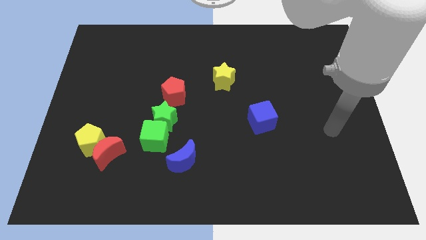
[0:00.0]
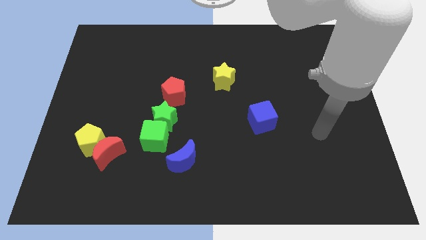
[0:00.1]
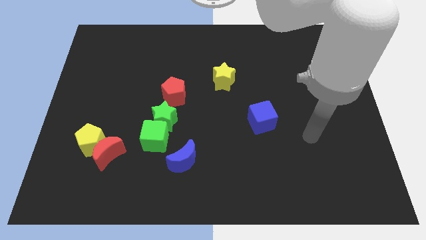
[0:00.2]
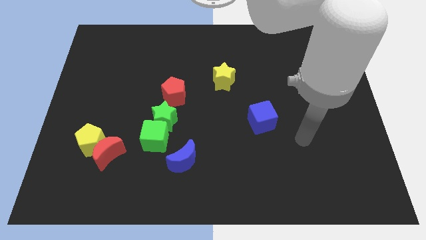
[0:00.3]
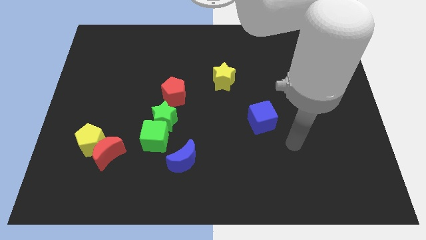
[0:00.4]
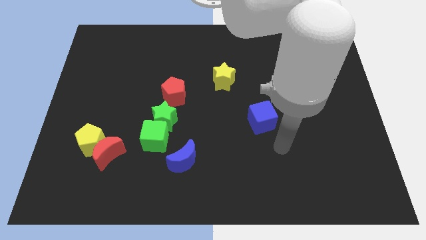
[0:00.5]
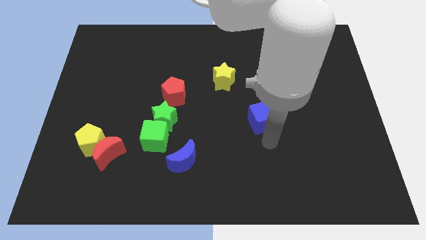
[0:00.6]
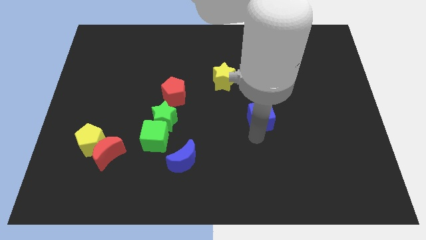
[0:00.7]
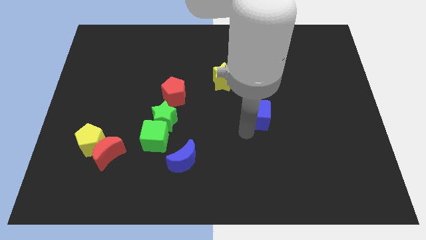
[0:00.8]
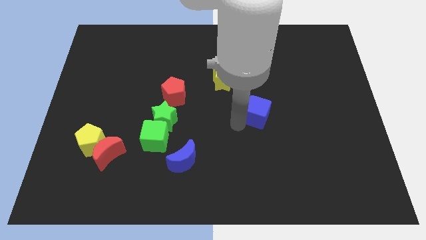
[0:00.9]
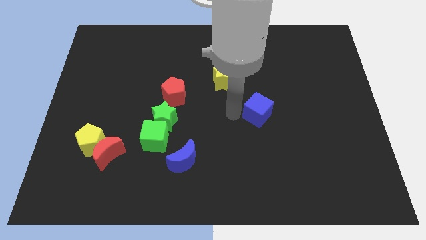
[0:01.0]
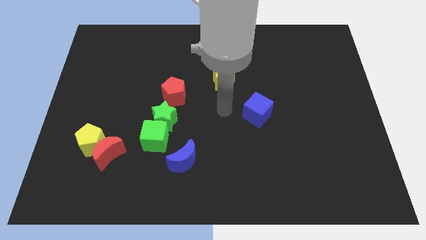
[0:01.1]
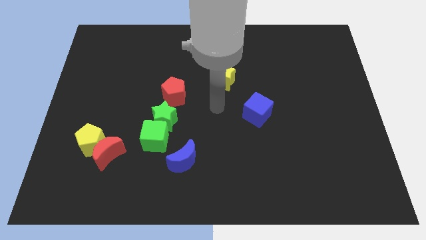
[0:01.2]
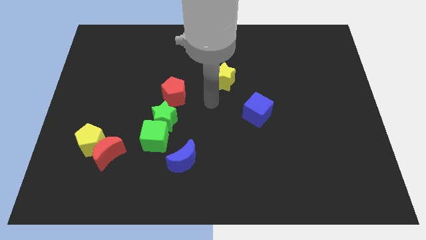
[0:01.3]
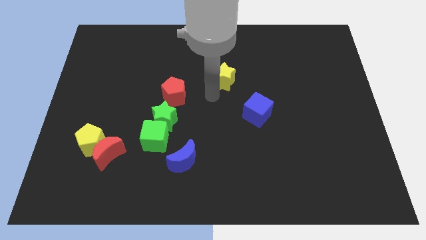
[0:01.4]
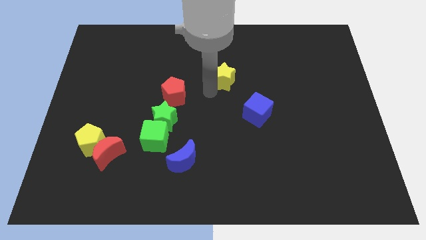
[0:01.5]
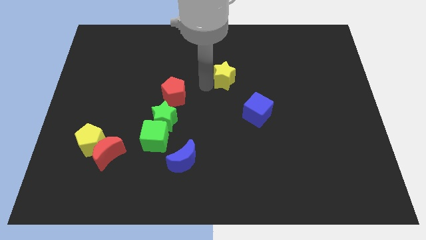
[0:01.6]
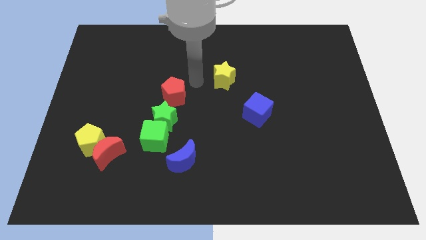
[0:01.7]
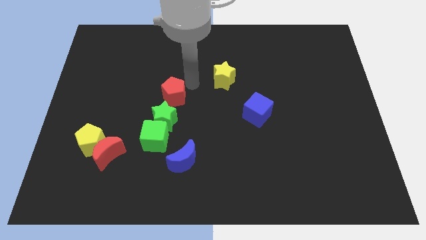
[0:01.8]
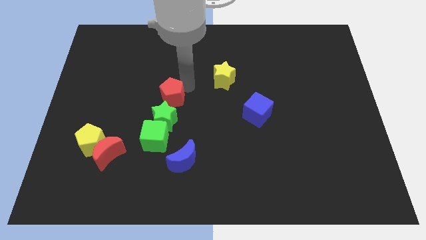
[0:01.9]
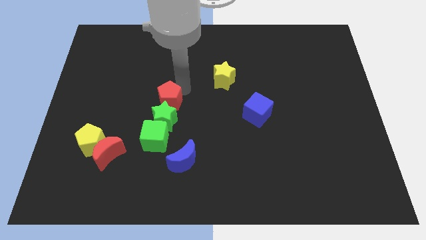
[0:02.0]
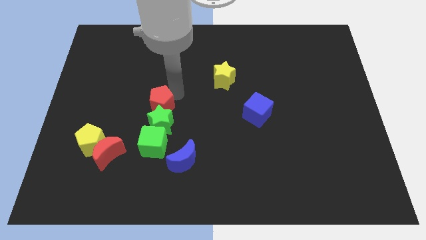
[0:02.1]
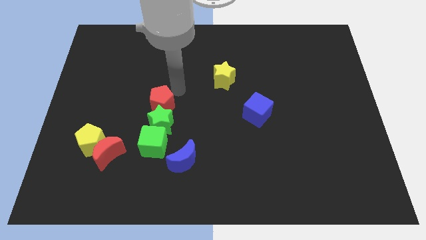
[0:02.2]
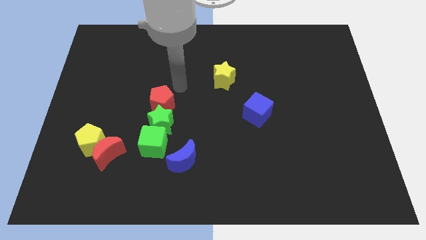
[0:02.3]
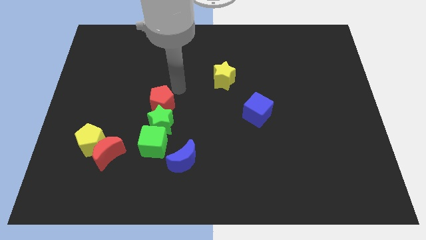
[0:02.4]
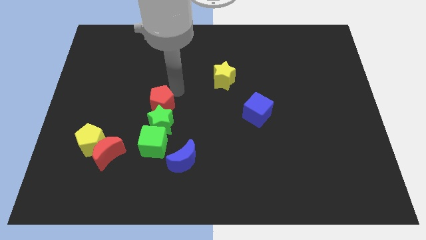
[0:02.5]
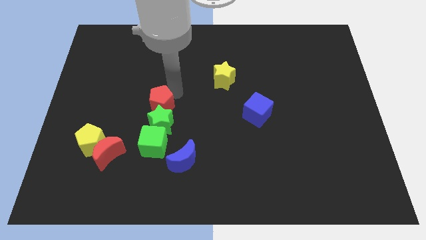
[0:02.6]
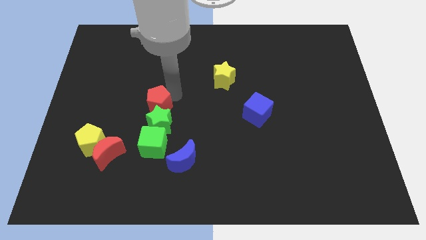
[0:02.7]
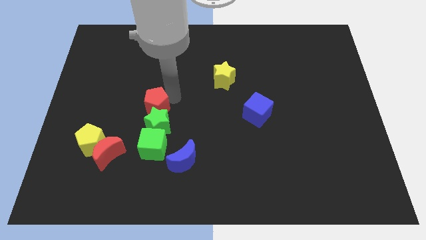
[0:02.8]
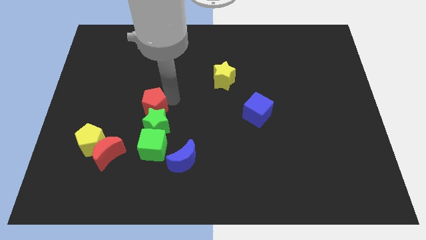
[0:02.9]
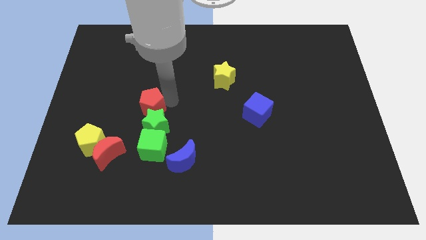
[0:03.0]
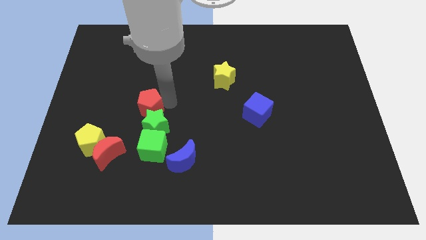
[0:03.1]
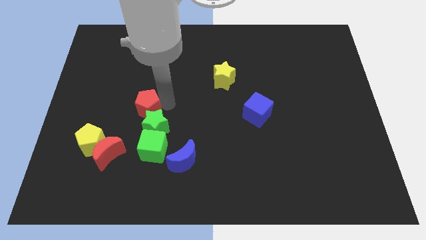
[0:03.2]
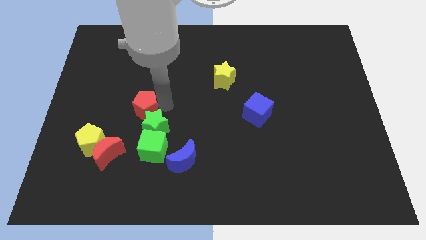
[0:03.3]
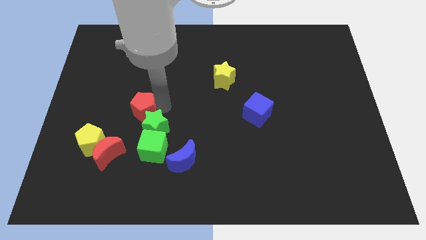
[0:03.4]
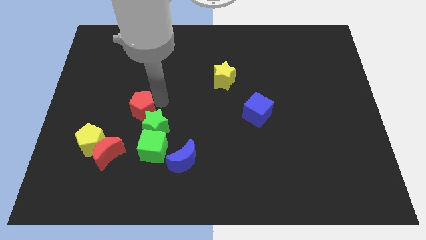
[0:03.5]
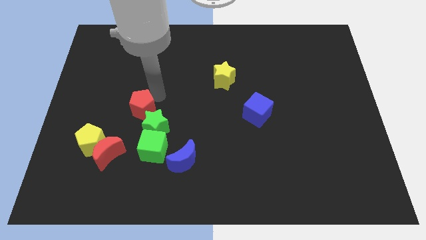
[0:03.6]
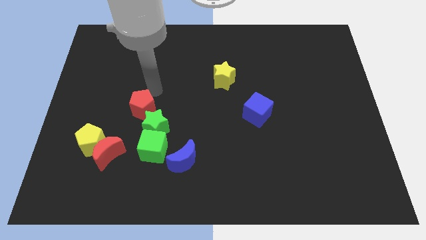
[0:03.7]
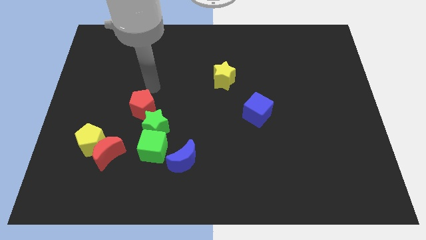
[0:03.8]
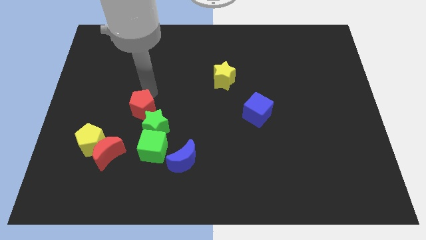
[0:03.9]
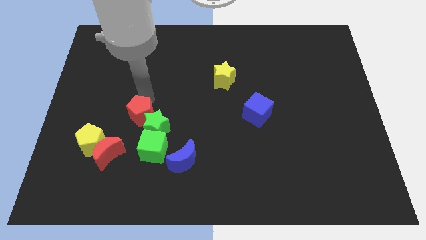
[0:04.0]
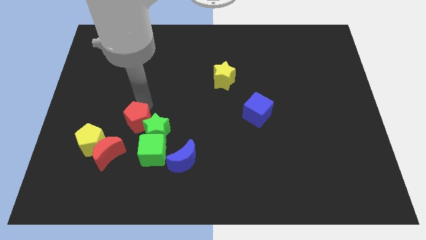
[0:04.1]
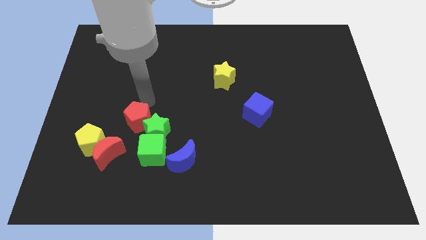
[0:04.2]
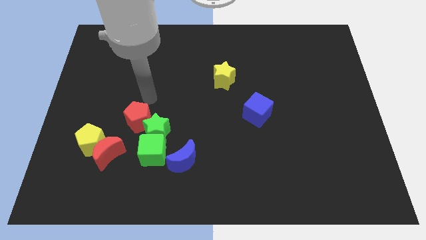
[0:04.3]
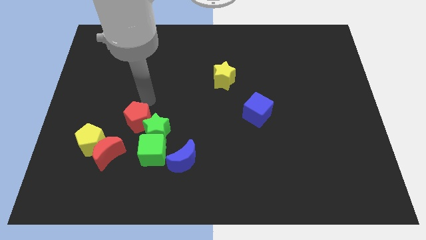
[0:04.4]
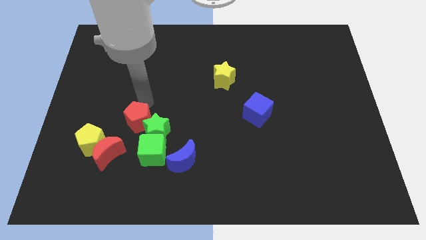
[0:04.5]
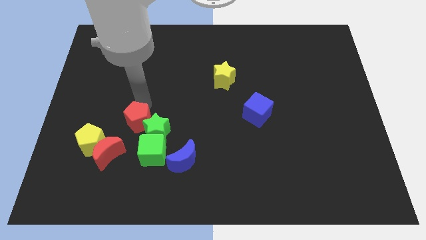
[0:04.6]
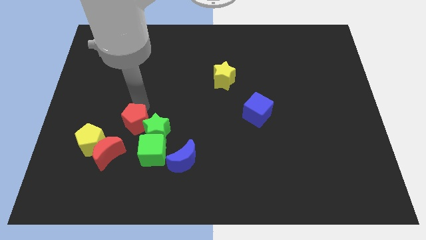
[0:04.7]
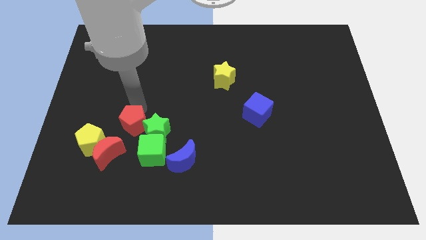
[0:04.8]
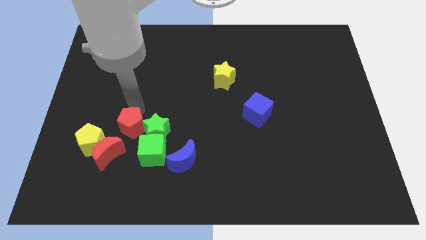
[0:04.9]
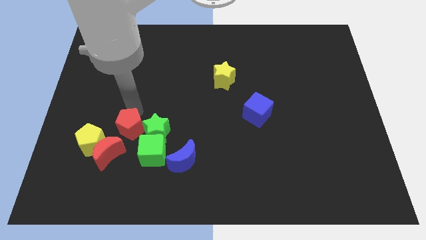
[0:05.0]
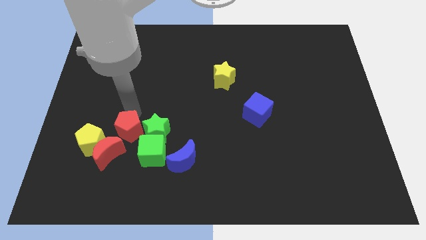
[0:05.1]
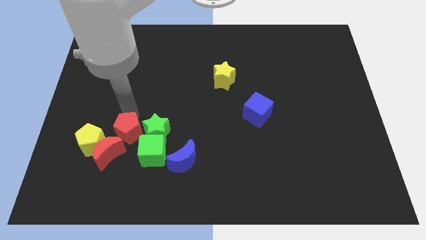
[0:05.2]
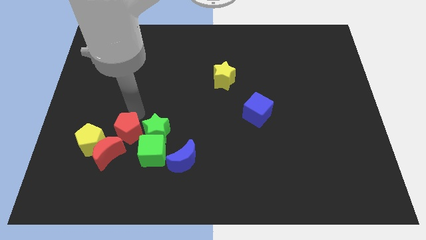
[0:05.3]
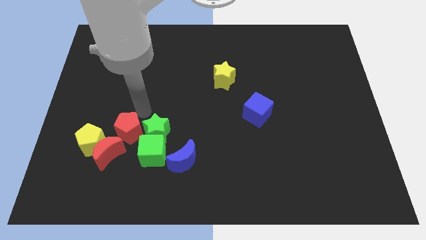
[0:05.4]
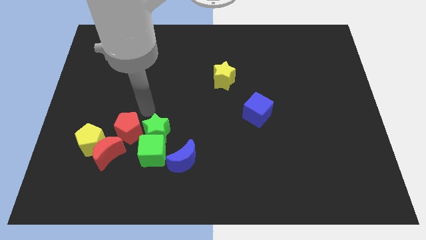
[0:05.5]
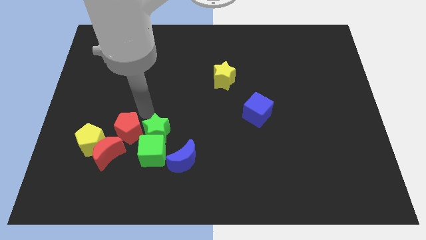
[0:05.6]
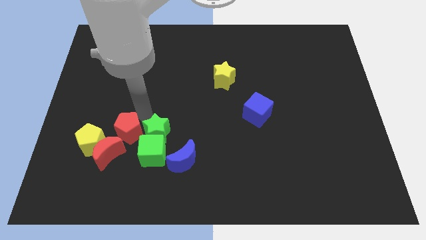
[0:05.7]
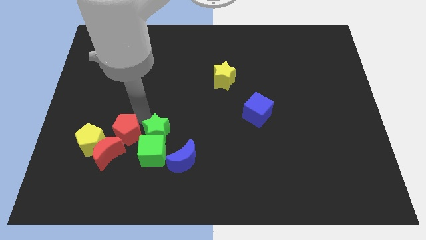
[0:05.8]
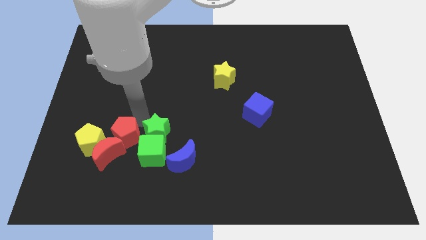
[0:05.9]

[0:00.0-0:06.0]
put the red pentagon close to the red moon
